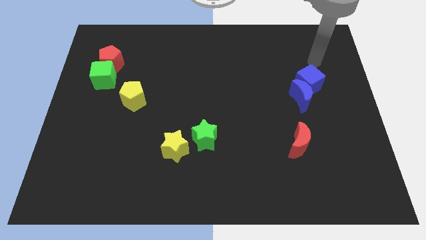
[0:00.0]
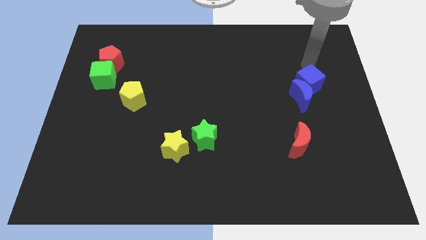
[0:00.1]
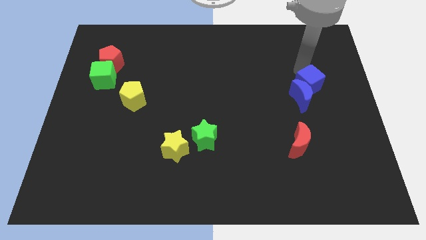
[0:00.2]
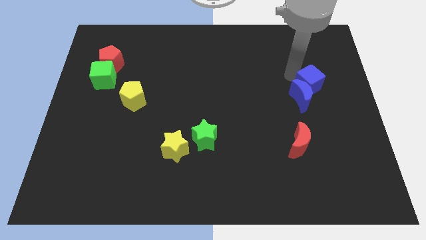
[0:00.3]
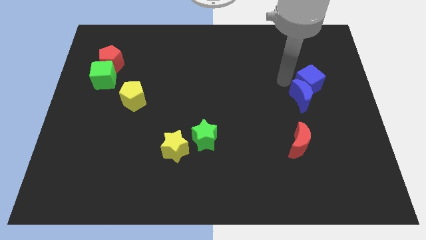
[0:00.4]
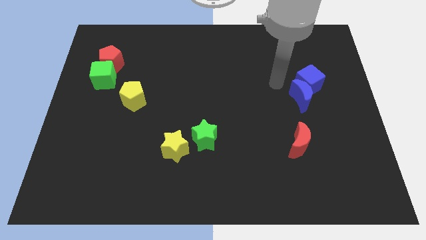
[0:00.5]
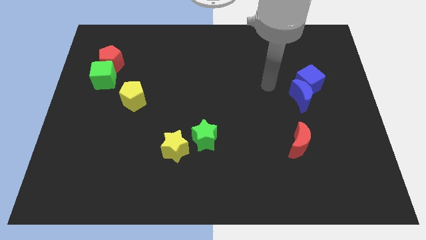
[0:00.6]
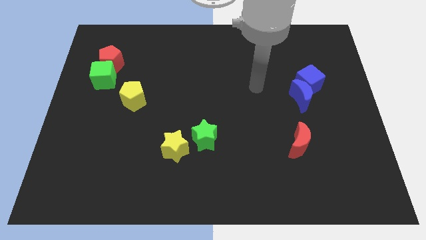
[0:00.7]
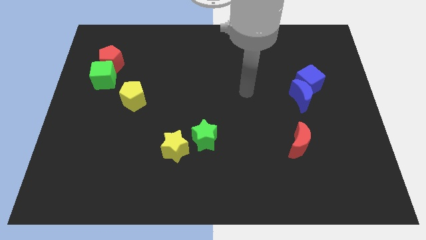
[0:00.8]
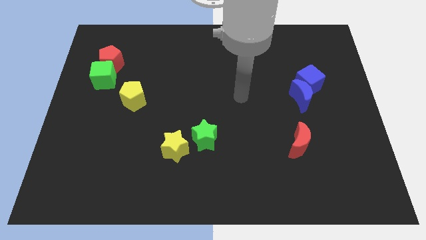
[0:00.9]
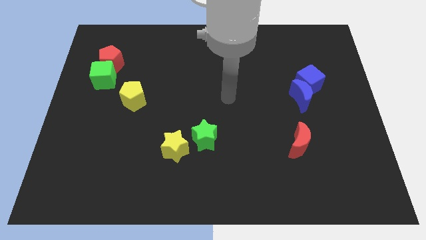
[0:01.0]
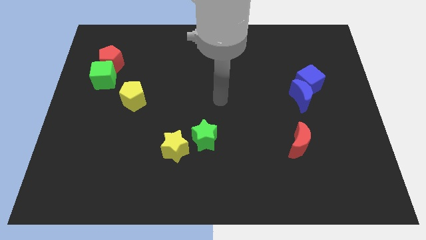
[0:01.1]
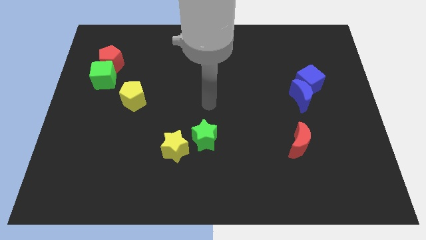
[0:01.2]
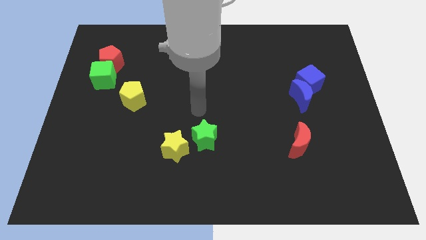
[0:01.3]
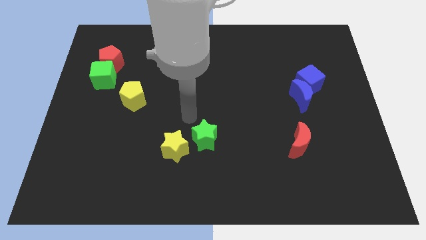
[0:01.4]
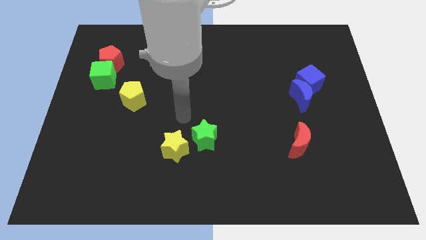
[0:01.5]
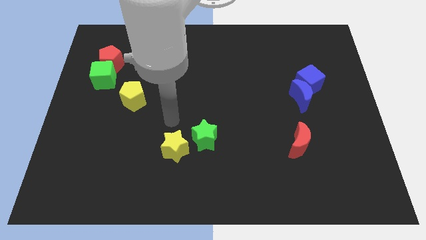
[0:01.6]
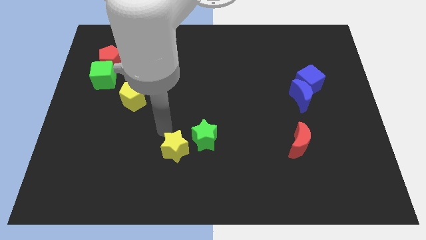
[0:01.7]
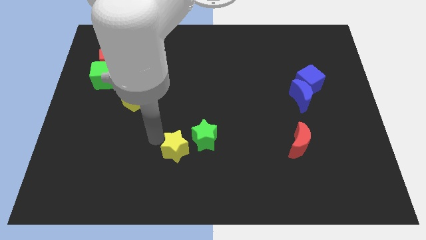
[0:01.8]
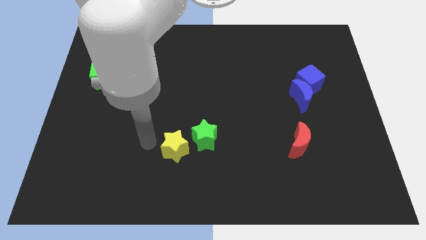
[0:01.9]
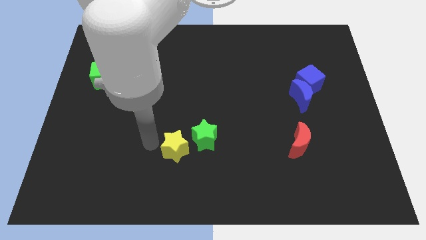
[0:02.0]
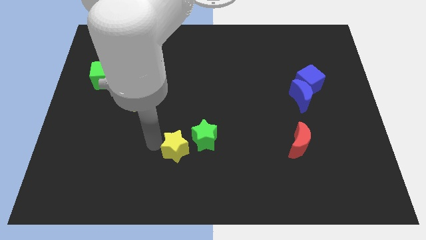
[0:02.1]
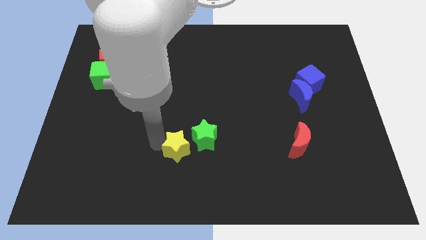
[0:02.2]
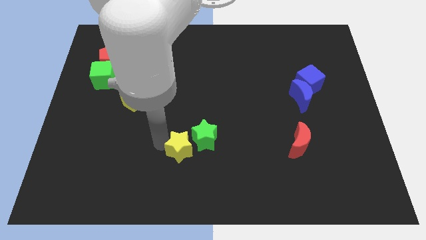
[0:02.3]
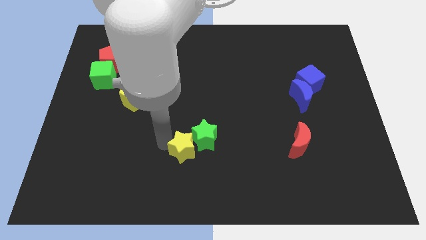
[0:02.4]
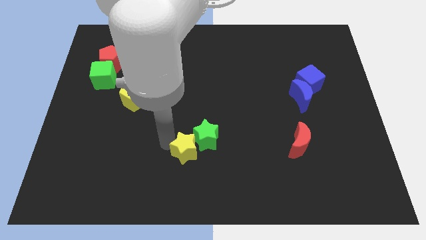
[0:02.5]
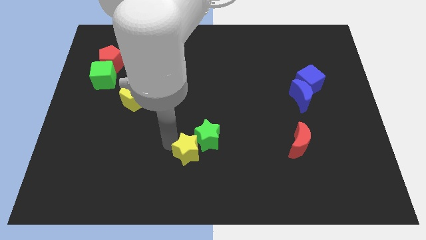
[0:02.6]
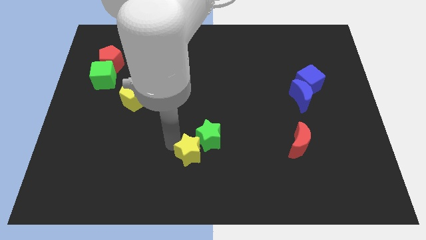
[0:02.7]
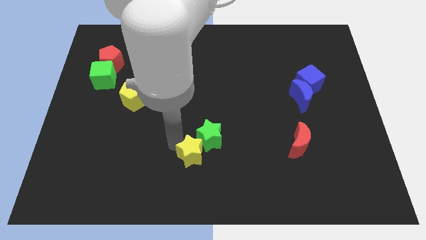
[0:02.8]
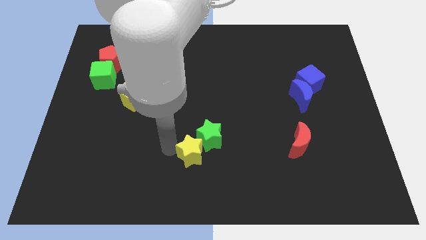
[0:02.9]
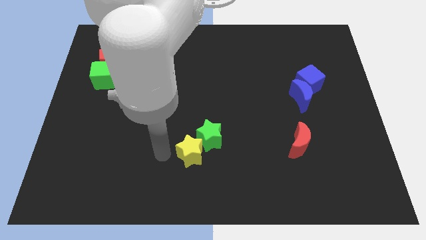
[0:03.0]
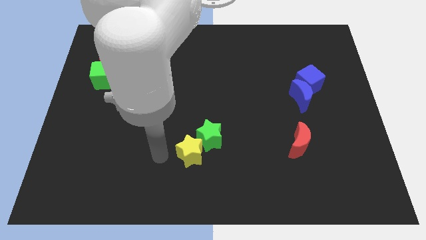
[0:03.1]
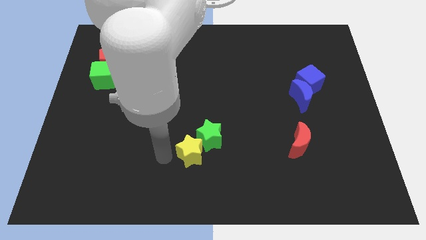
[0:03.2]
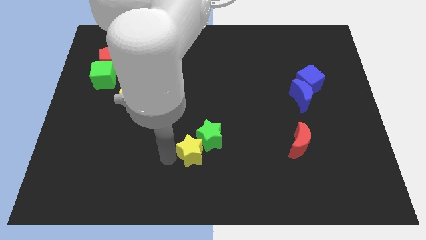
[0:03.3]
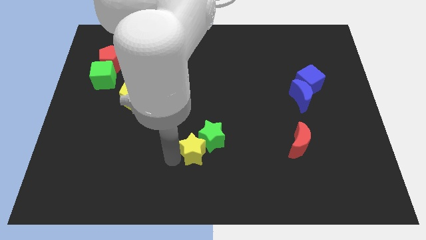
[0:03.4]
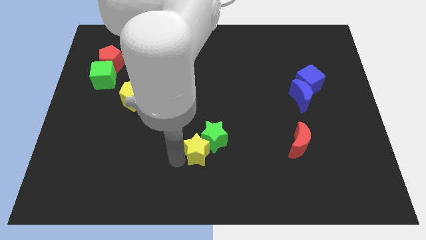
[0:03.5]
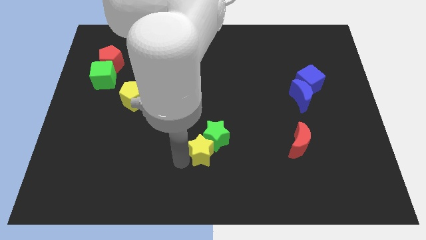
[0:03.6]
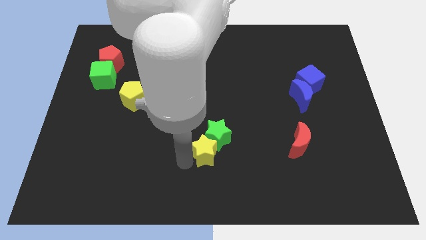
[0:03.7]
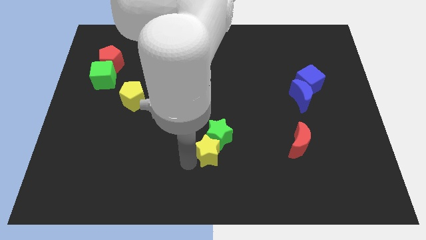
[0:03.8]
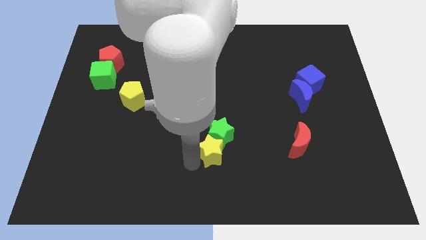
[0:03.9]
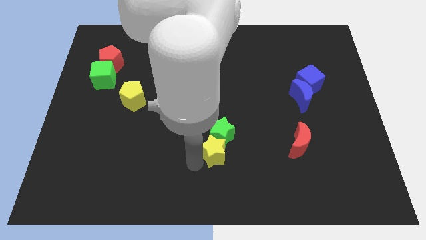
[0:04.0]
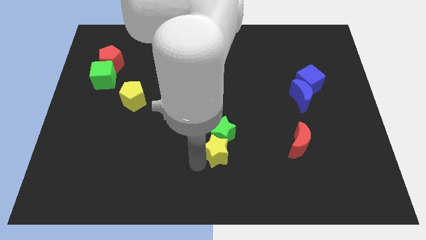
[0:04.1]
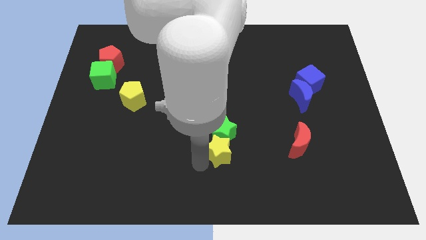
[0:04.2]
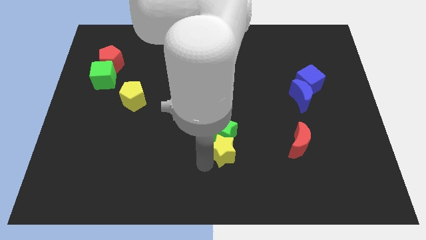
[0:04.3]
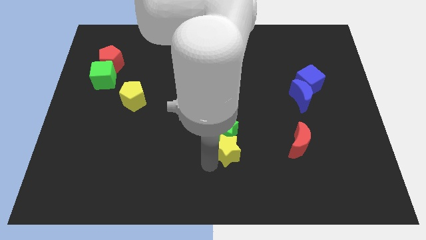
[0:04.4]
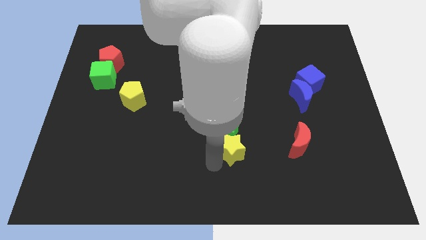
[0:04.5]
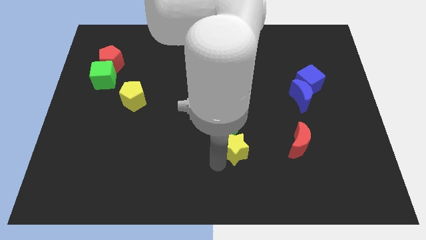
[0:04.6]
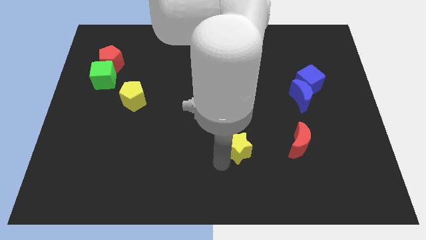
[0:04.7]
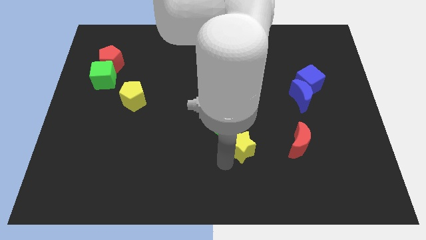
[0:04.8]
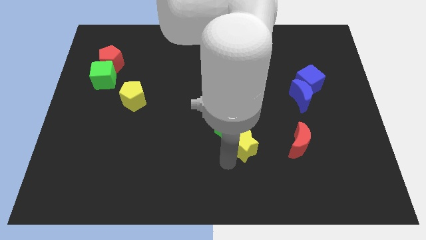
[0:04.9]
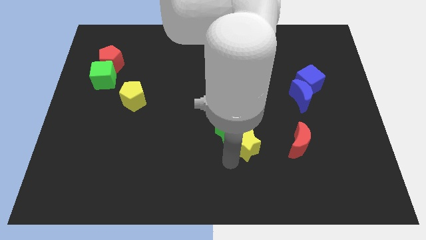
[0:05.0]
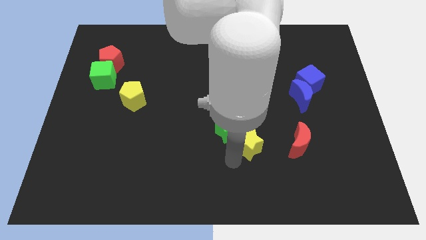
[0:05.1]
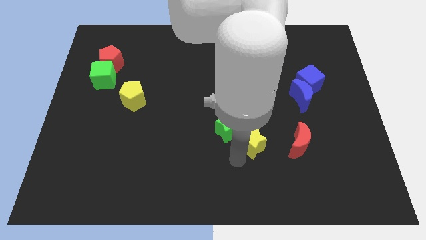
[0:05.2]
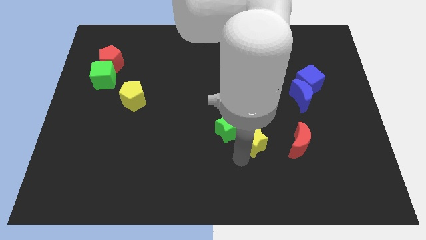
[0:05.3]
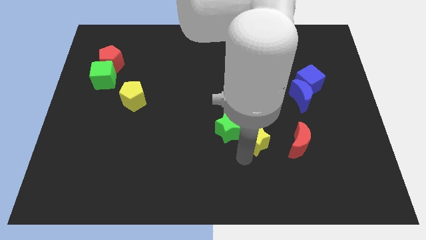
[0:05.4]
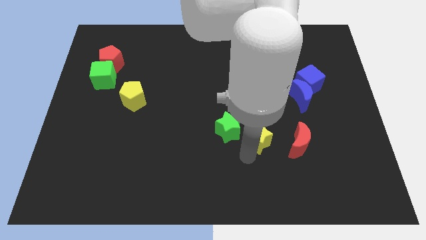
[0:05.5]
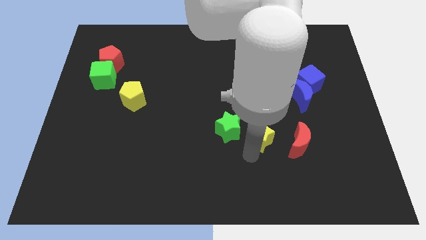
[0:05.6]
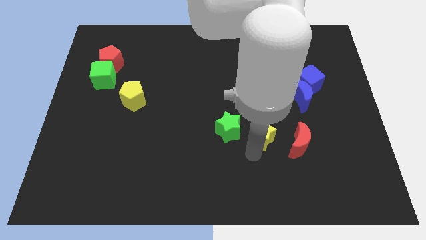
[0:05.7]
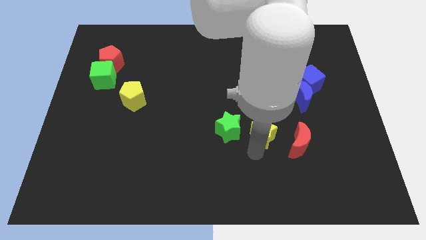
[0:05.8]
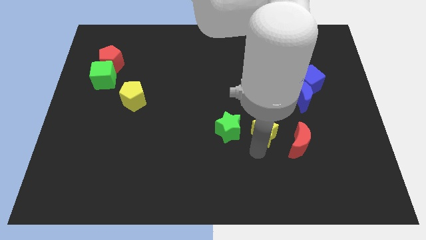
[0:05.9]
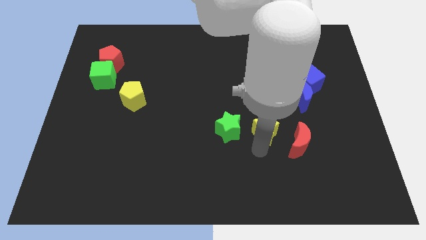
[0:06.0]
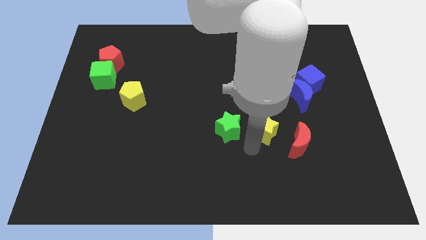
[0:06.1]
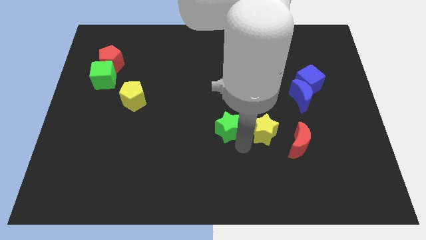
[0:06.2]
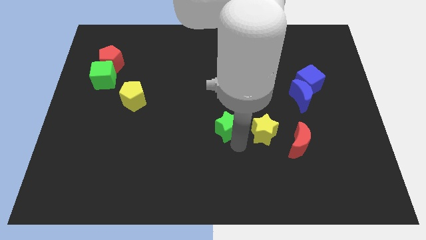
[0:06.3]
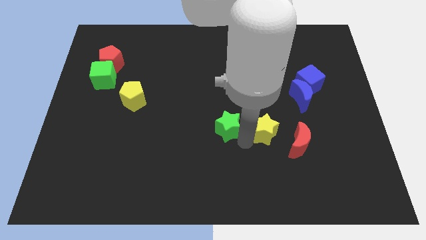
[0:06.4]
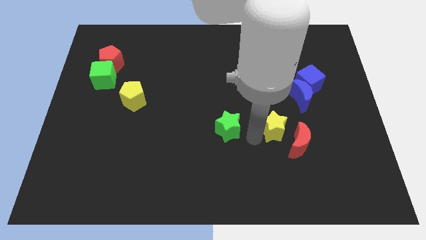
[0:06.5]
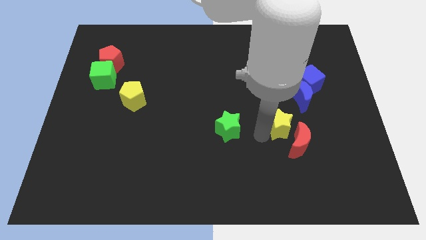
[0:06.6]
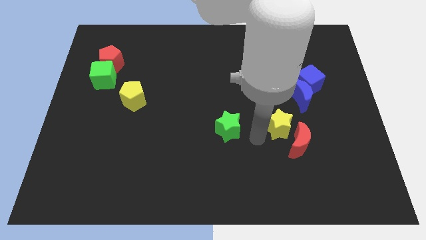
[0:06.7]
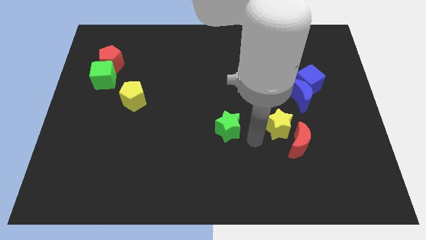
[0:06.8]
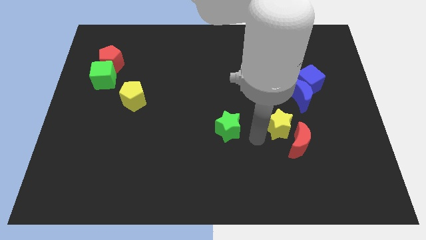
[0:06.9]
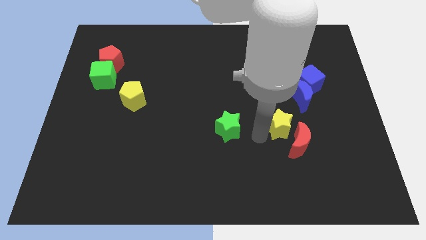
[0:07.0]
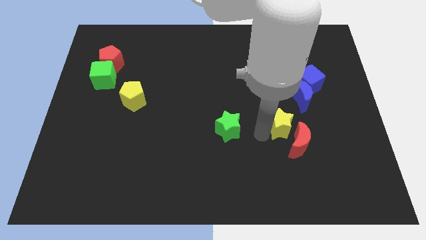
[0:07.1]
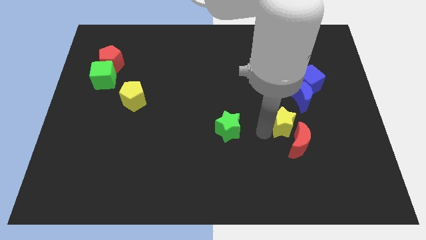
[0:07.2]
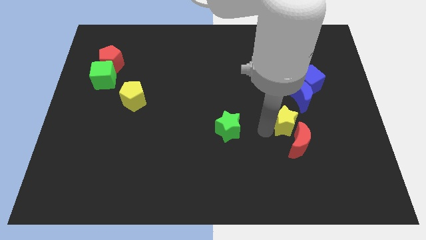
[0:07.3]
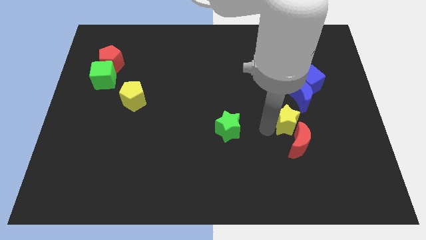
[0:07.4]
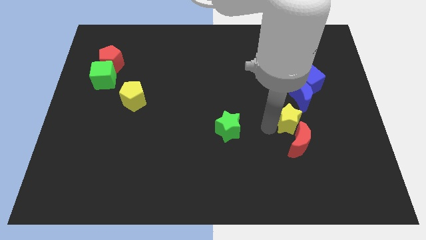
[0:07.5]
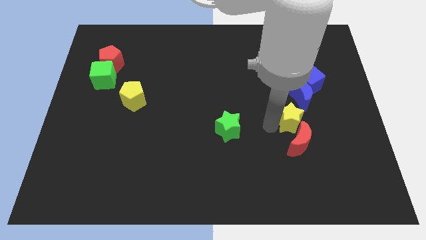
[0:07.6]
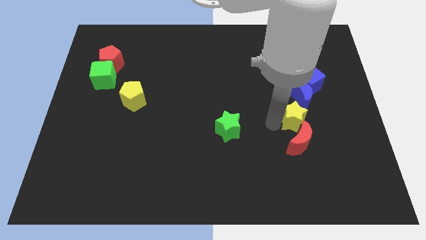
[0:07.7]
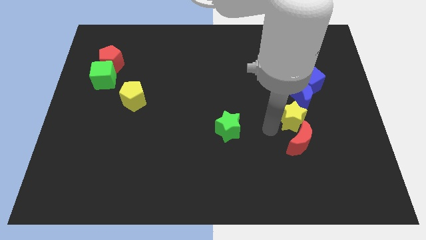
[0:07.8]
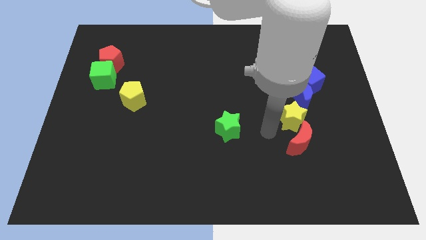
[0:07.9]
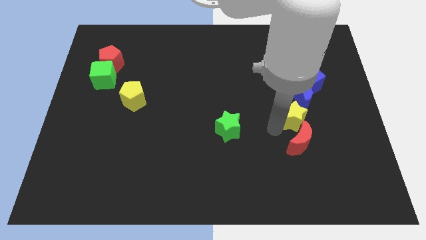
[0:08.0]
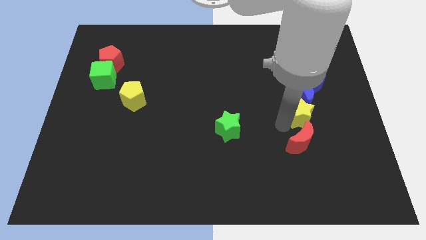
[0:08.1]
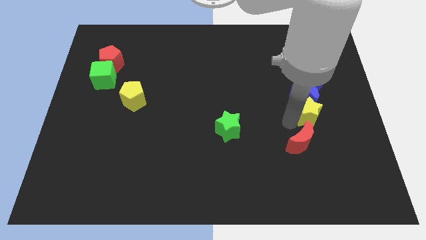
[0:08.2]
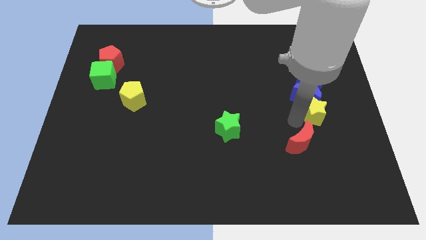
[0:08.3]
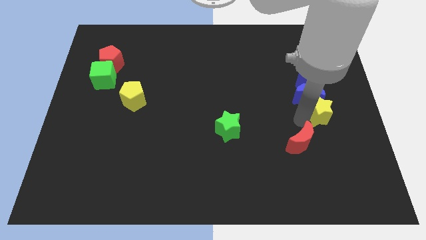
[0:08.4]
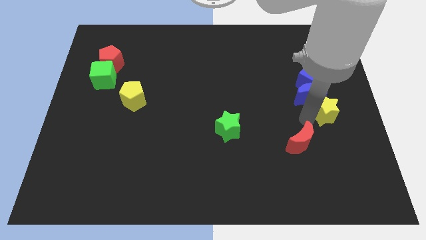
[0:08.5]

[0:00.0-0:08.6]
push the yellow star to the right side
